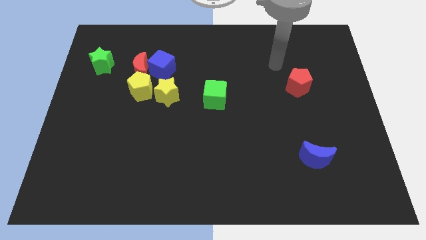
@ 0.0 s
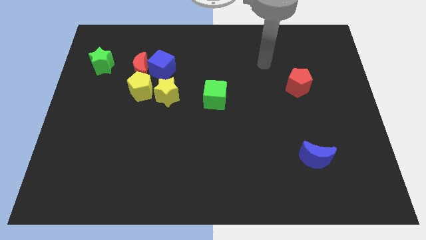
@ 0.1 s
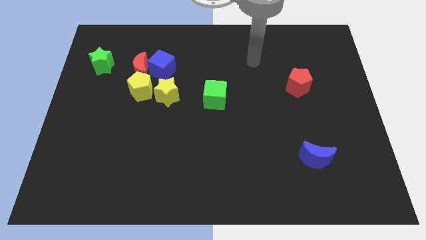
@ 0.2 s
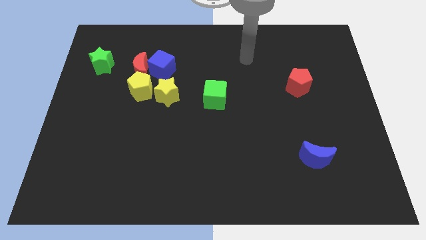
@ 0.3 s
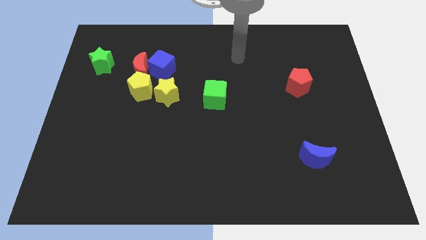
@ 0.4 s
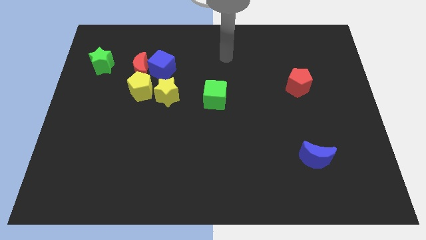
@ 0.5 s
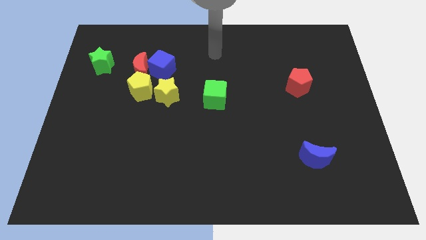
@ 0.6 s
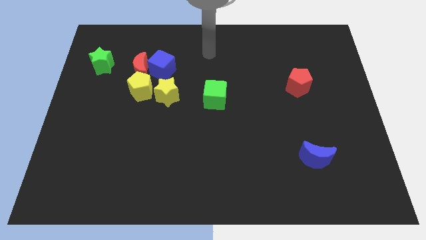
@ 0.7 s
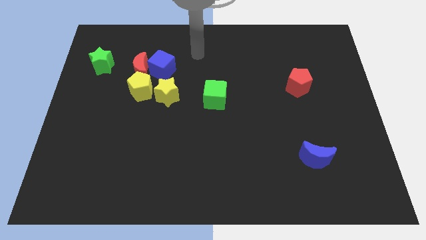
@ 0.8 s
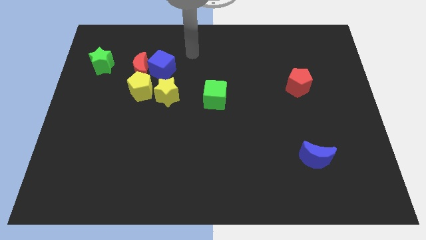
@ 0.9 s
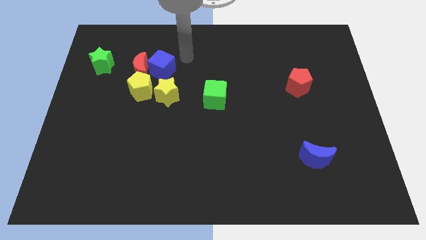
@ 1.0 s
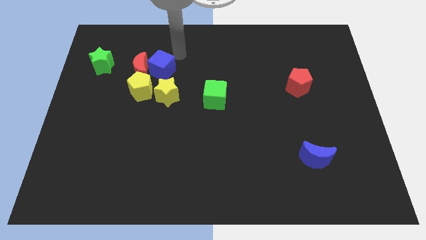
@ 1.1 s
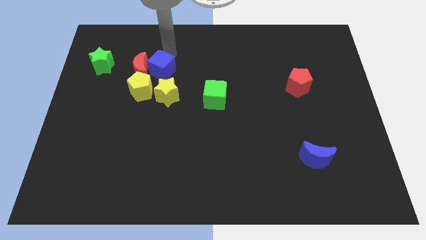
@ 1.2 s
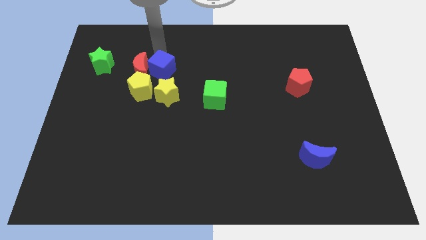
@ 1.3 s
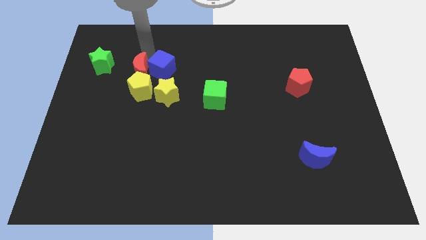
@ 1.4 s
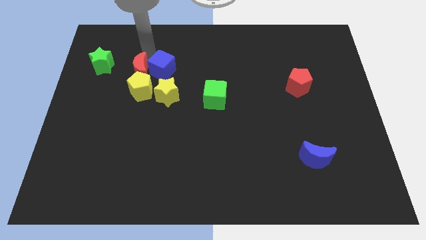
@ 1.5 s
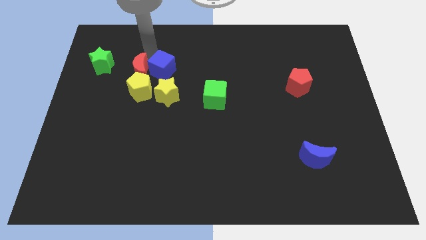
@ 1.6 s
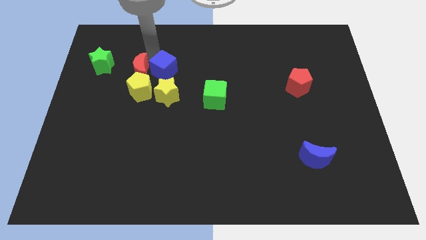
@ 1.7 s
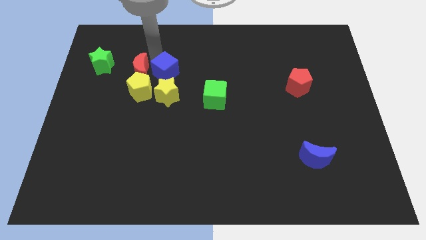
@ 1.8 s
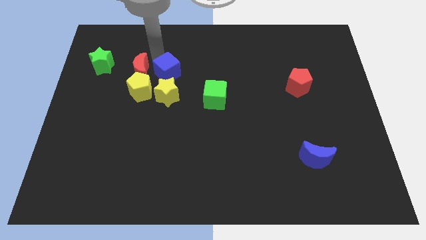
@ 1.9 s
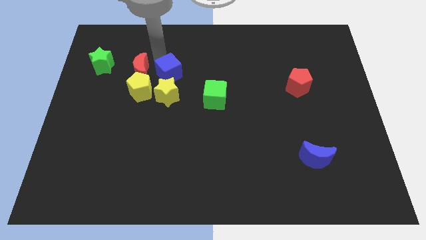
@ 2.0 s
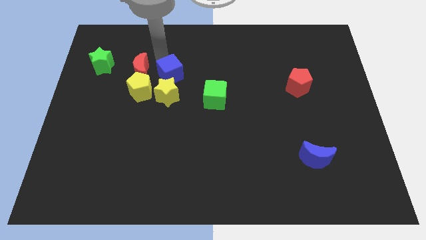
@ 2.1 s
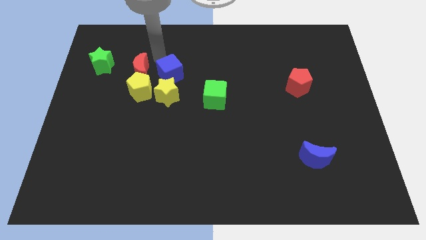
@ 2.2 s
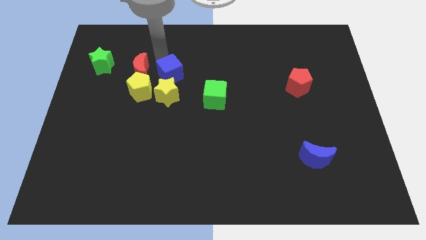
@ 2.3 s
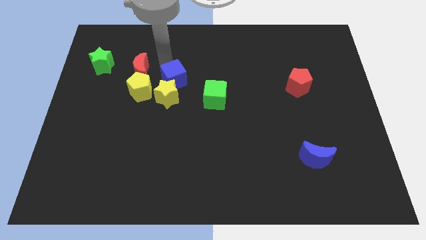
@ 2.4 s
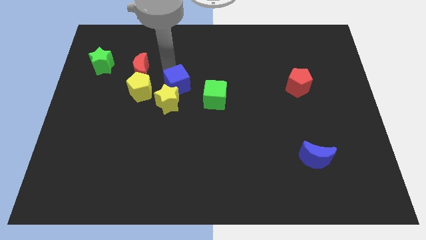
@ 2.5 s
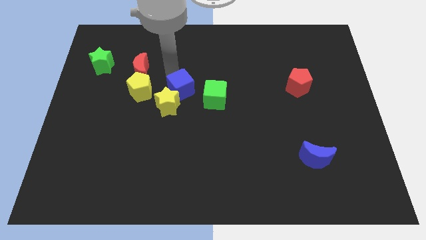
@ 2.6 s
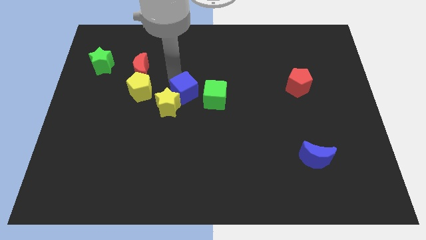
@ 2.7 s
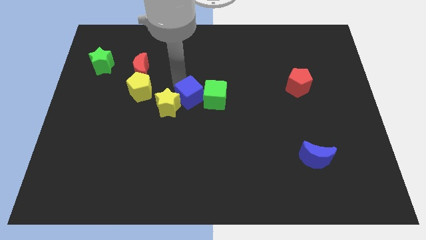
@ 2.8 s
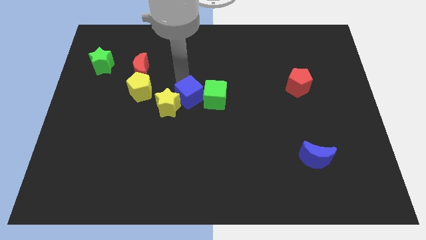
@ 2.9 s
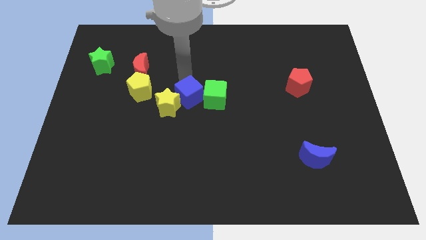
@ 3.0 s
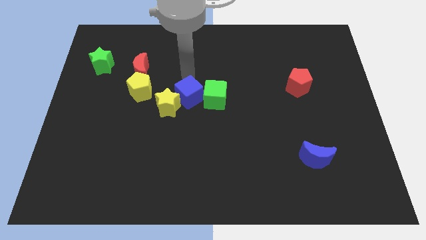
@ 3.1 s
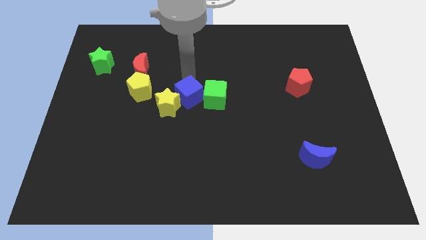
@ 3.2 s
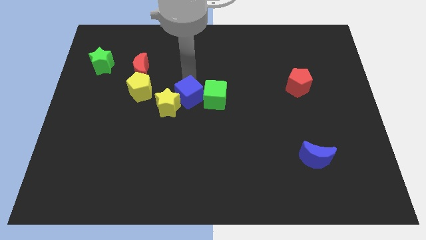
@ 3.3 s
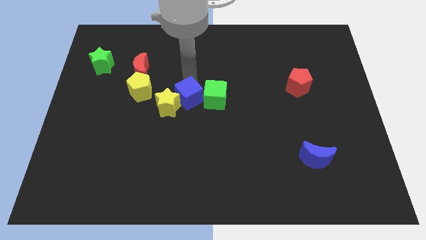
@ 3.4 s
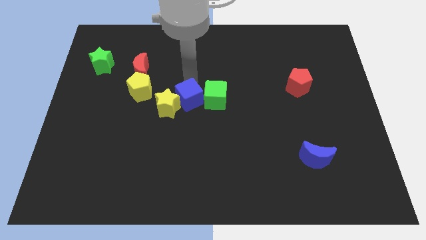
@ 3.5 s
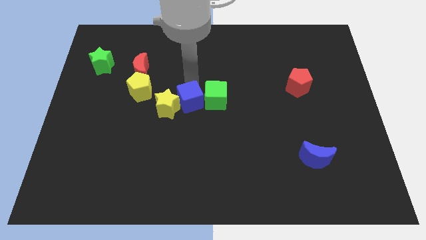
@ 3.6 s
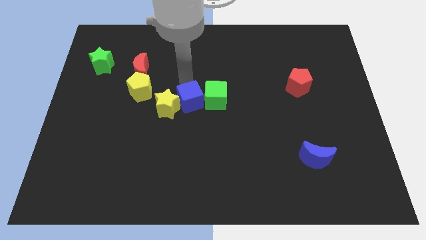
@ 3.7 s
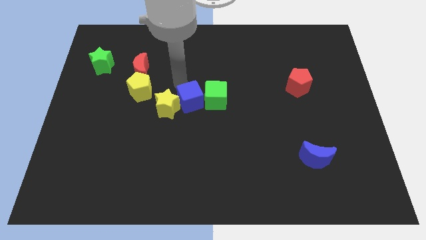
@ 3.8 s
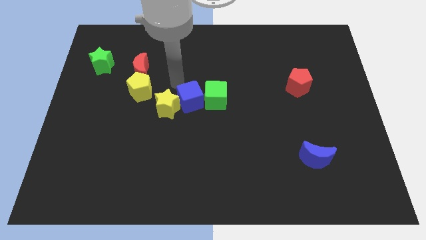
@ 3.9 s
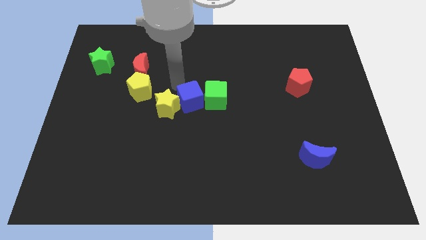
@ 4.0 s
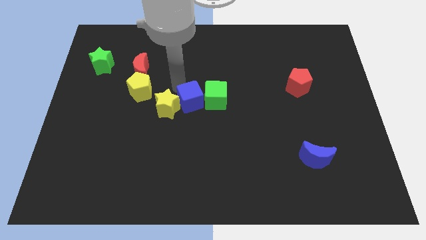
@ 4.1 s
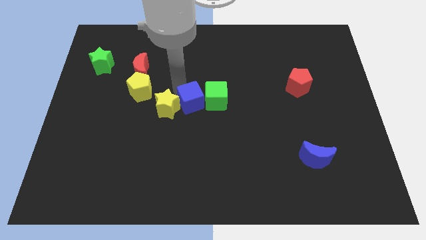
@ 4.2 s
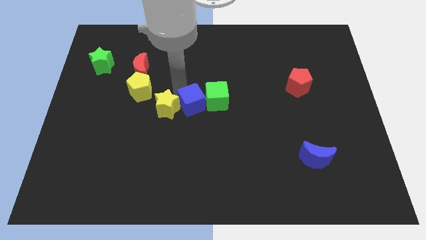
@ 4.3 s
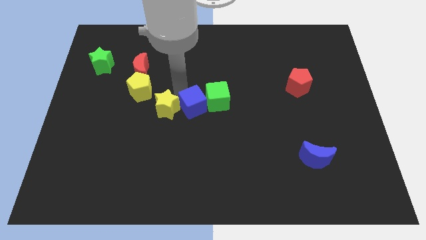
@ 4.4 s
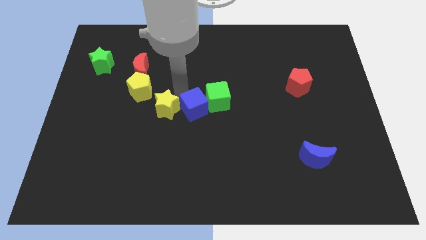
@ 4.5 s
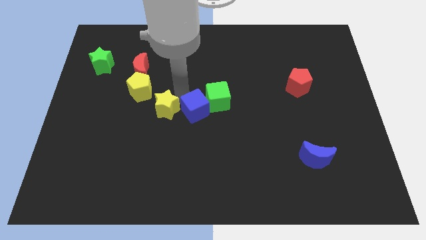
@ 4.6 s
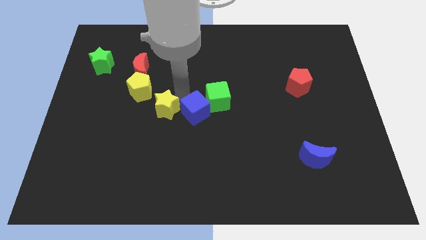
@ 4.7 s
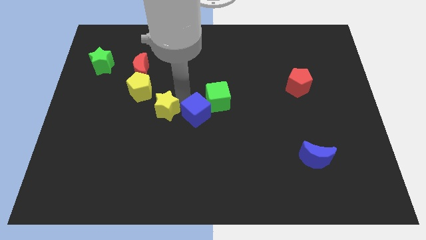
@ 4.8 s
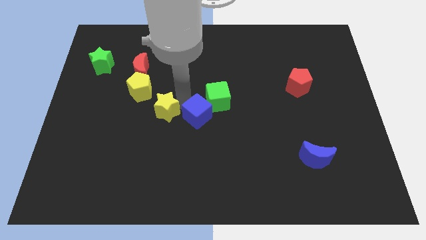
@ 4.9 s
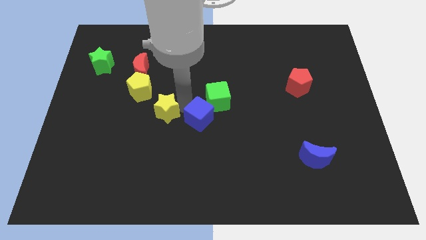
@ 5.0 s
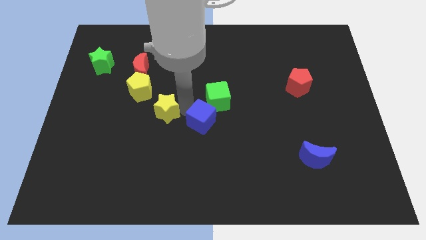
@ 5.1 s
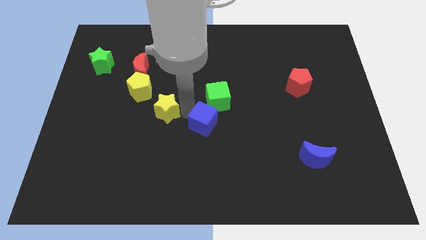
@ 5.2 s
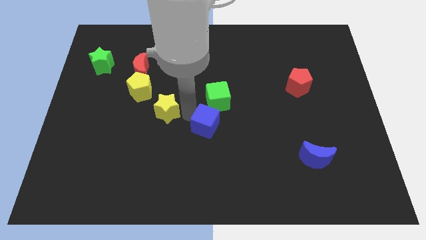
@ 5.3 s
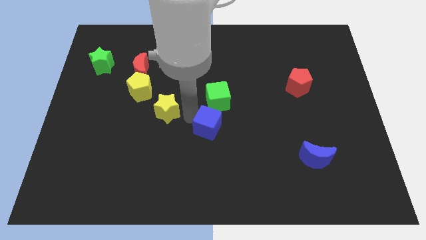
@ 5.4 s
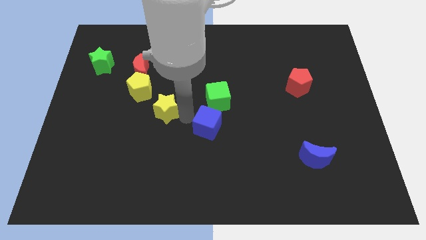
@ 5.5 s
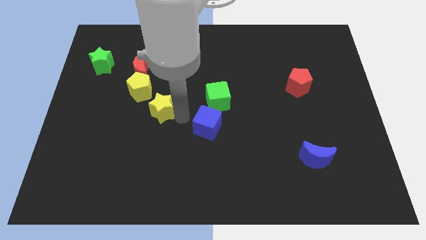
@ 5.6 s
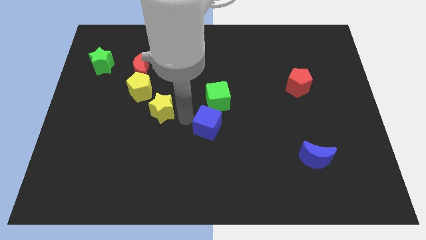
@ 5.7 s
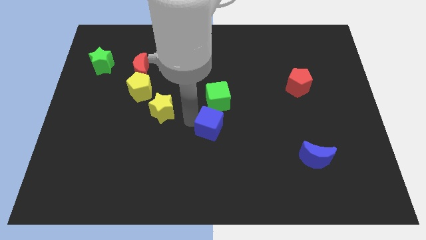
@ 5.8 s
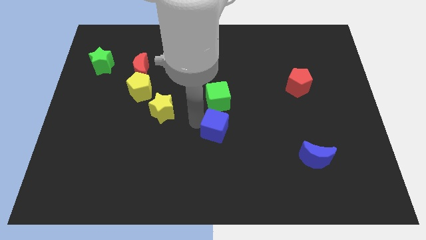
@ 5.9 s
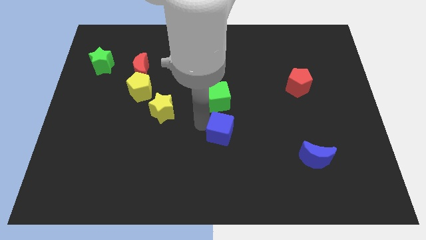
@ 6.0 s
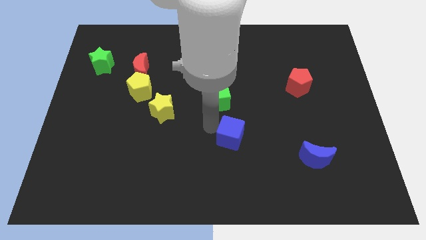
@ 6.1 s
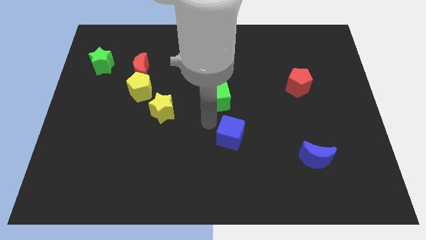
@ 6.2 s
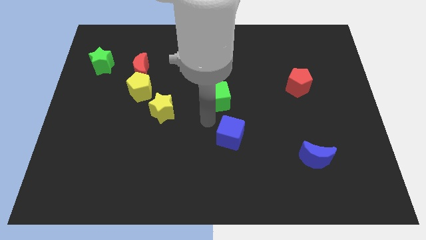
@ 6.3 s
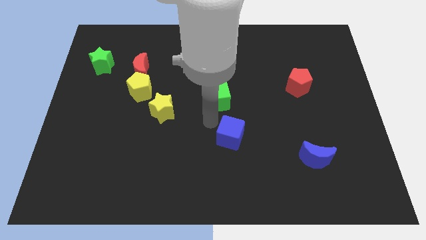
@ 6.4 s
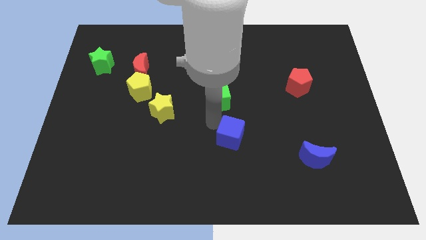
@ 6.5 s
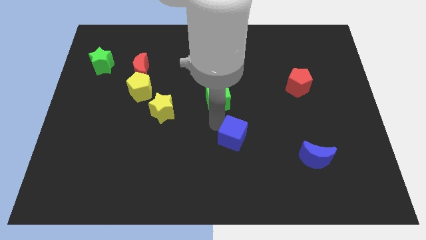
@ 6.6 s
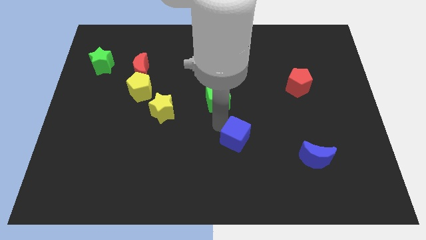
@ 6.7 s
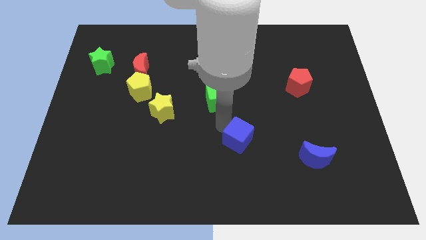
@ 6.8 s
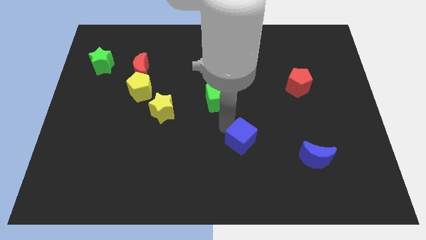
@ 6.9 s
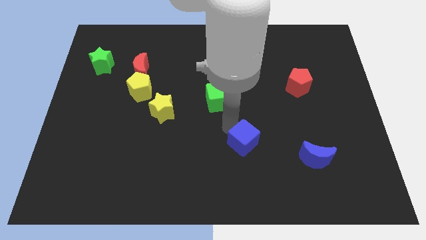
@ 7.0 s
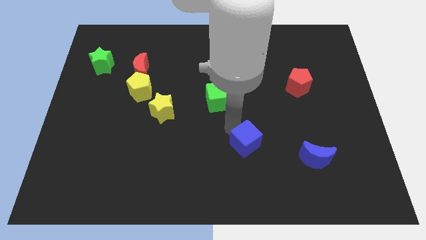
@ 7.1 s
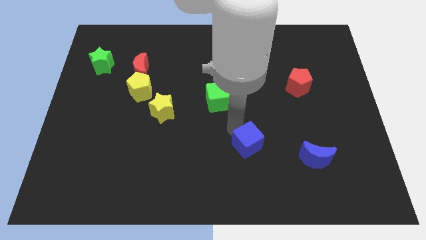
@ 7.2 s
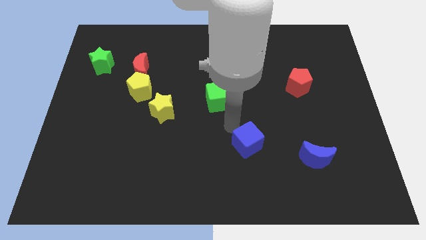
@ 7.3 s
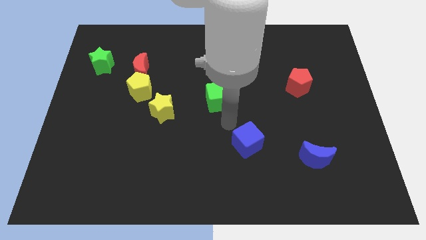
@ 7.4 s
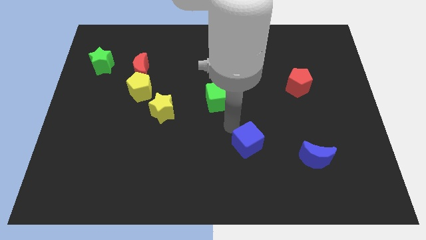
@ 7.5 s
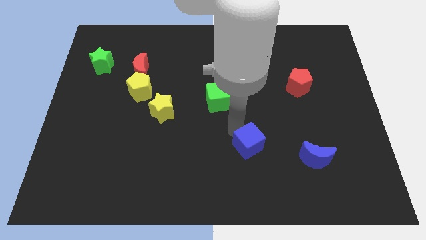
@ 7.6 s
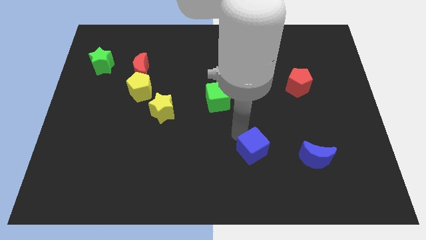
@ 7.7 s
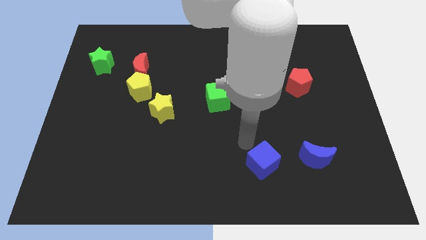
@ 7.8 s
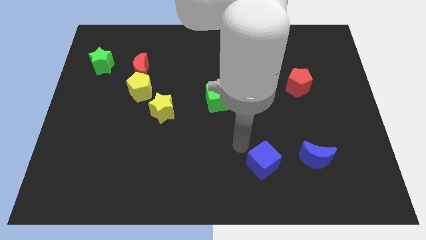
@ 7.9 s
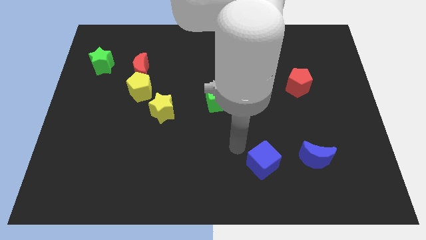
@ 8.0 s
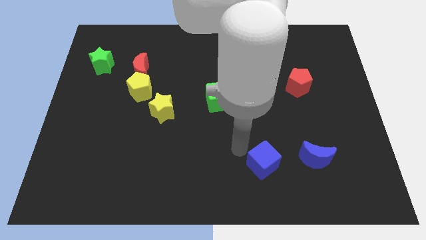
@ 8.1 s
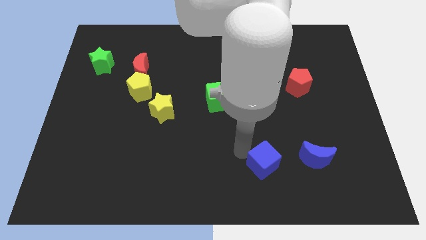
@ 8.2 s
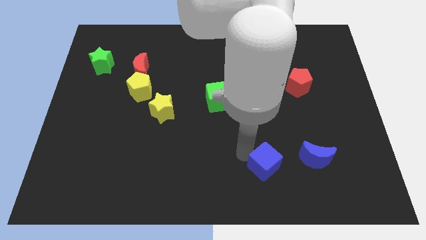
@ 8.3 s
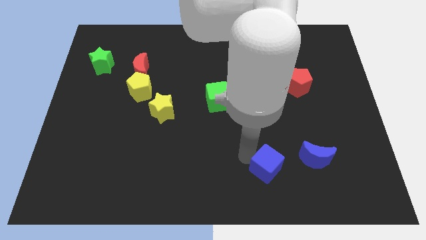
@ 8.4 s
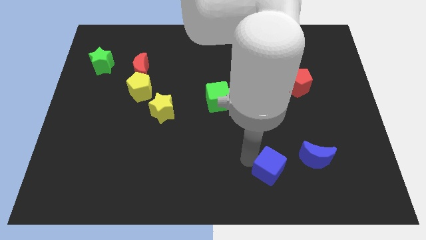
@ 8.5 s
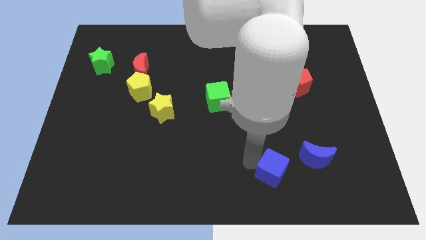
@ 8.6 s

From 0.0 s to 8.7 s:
put the blue cube to the bottom left of the blue moon
